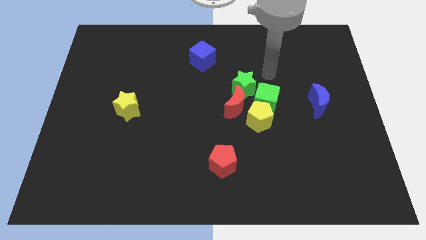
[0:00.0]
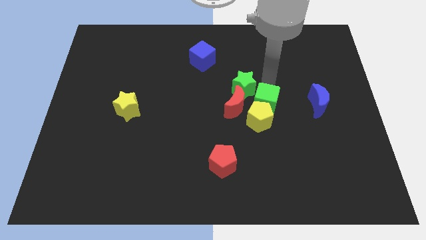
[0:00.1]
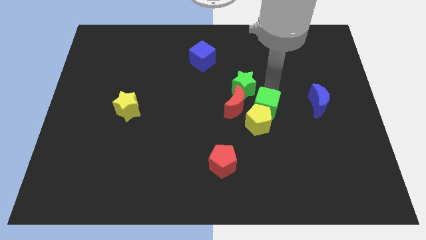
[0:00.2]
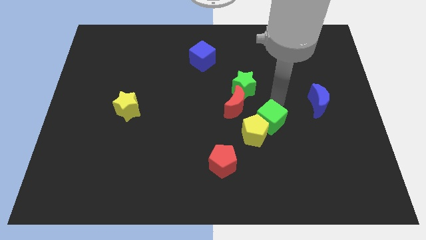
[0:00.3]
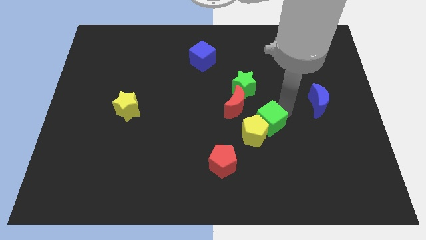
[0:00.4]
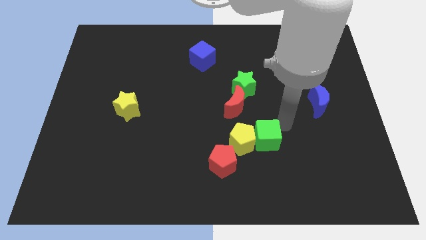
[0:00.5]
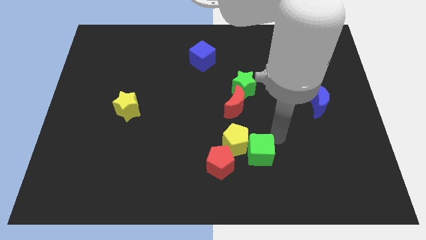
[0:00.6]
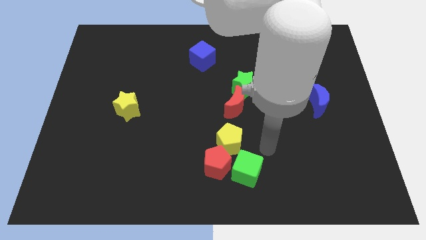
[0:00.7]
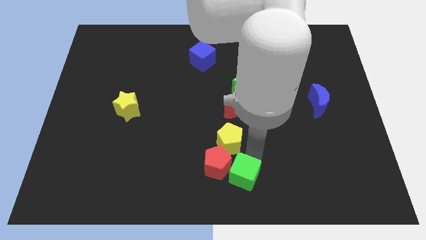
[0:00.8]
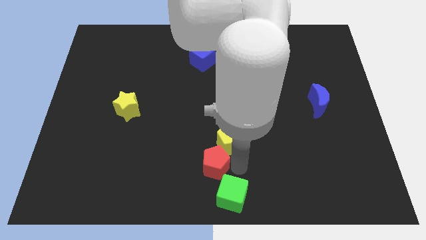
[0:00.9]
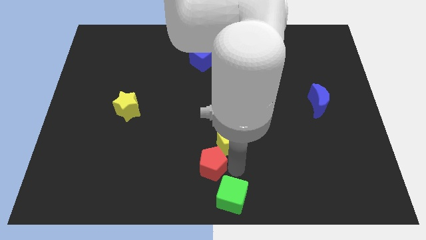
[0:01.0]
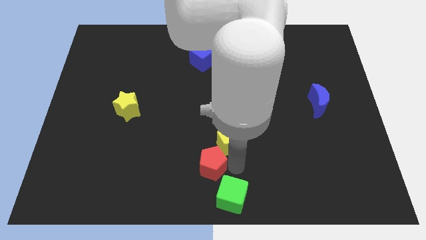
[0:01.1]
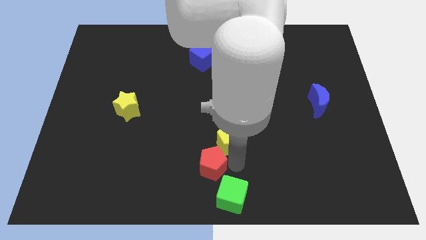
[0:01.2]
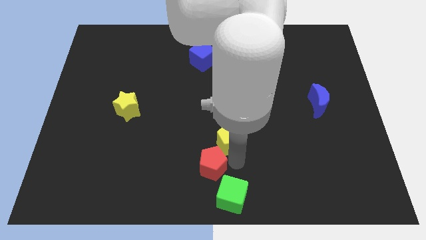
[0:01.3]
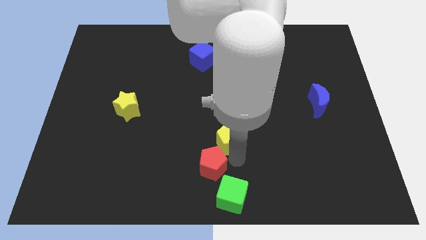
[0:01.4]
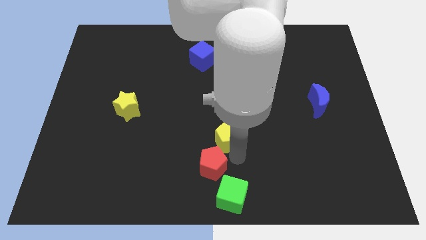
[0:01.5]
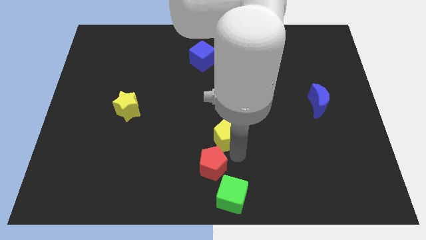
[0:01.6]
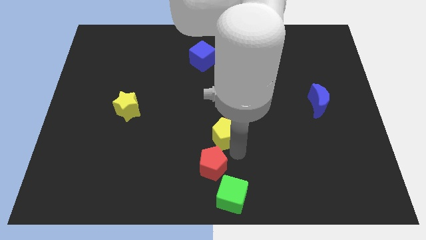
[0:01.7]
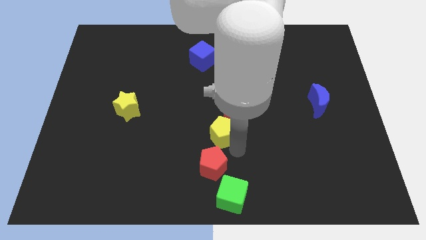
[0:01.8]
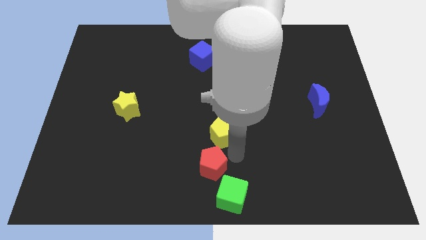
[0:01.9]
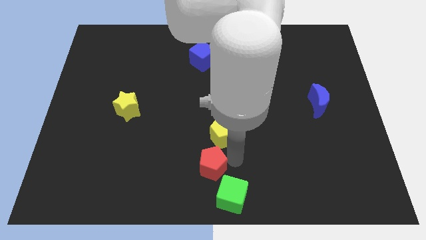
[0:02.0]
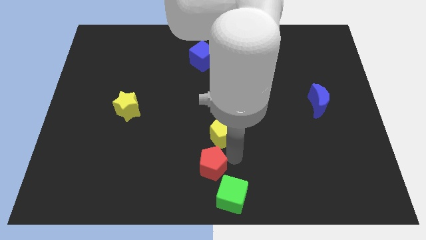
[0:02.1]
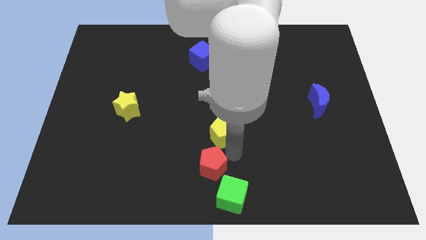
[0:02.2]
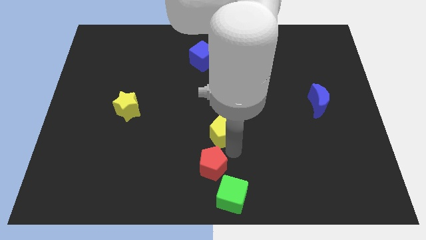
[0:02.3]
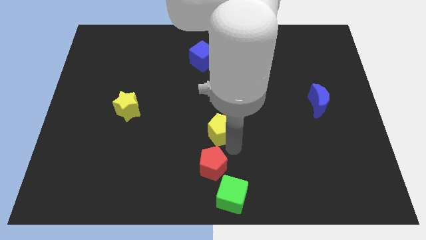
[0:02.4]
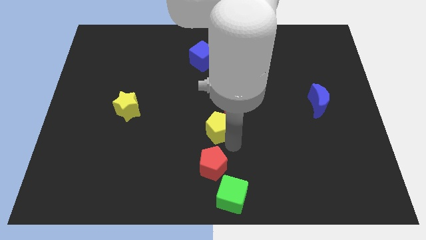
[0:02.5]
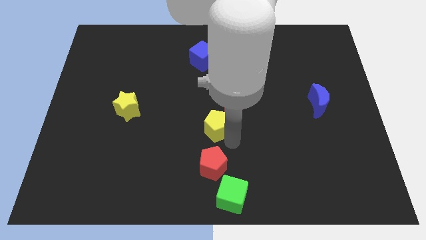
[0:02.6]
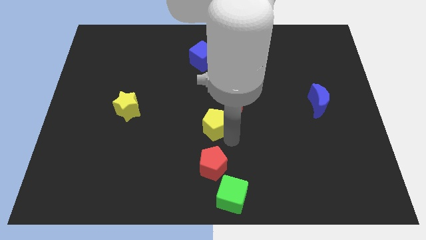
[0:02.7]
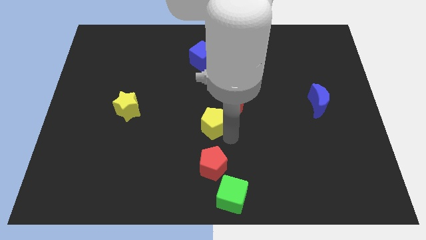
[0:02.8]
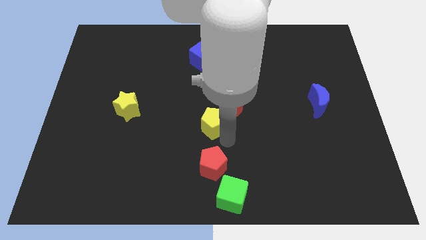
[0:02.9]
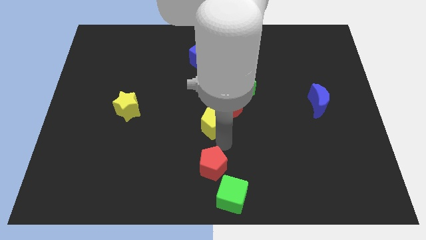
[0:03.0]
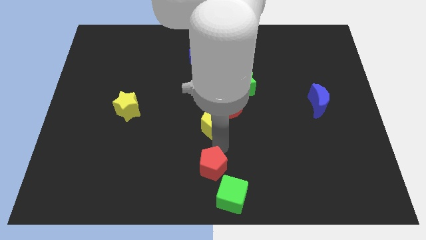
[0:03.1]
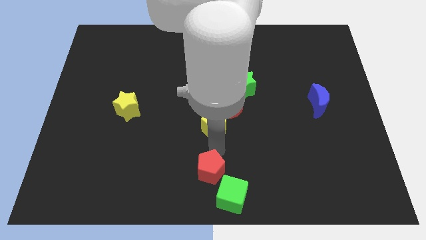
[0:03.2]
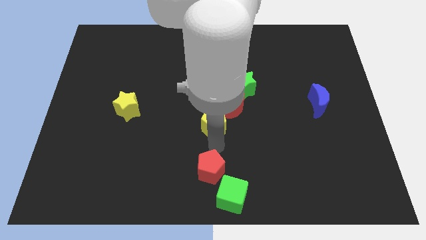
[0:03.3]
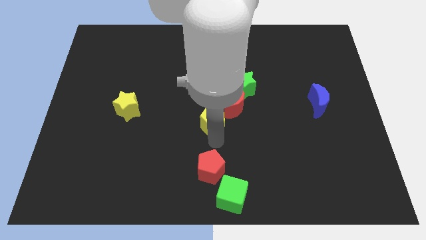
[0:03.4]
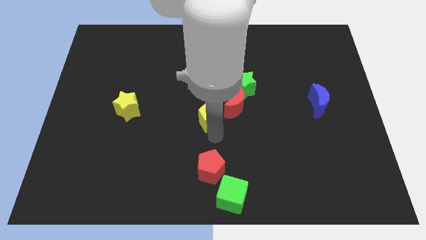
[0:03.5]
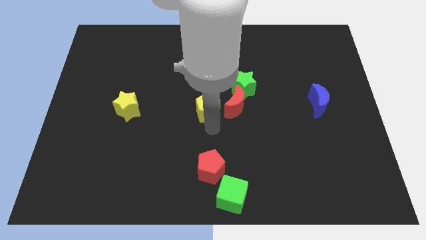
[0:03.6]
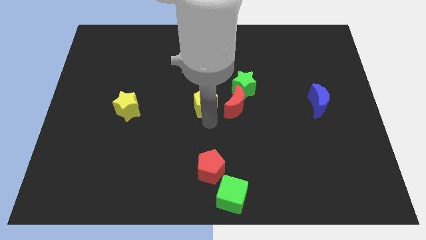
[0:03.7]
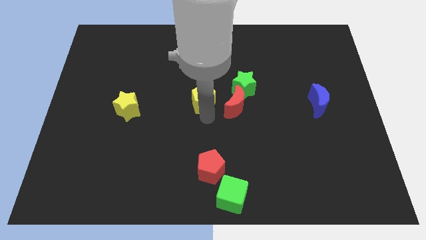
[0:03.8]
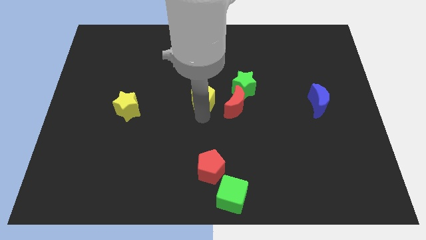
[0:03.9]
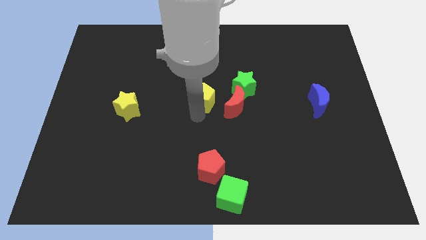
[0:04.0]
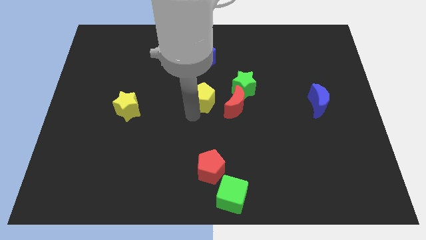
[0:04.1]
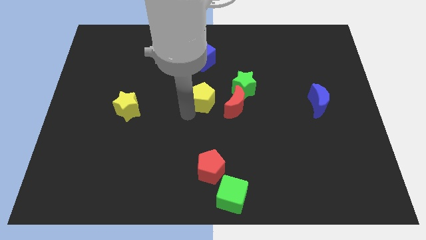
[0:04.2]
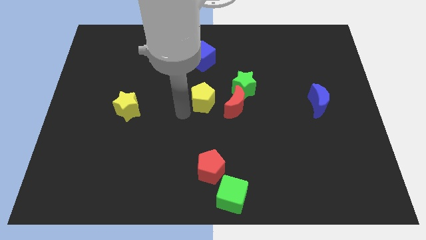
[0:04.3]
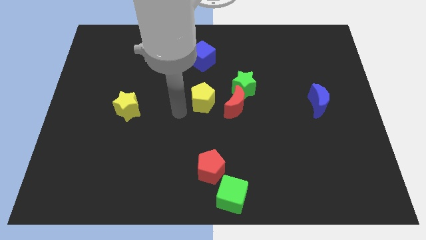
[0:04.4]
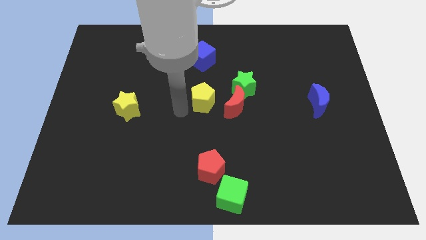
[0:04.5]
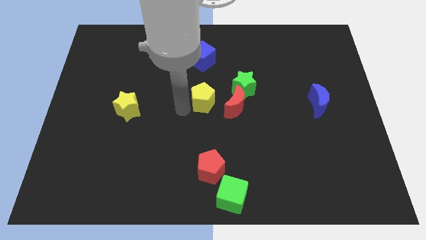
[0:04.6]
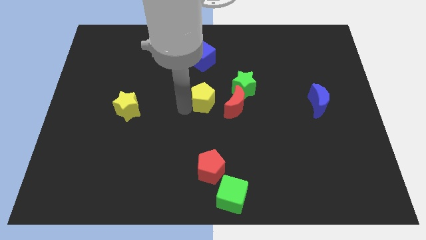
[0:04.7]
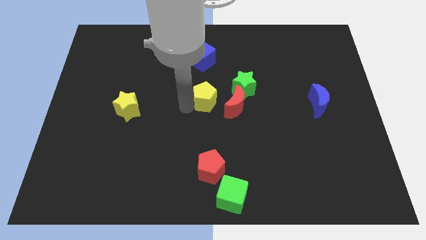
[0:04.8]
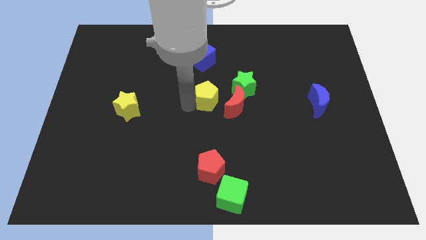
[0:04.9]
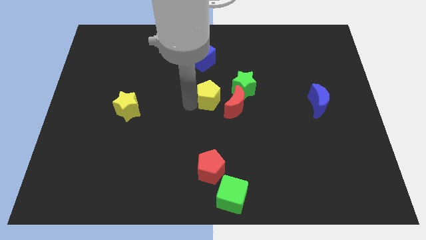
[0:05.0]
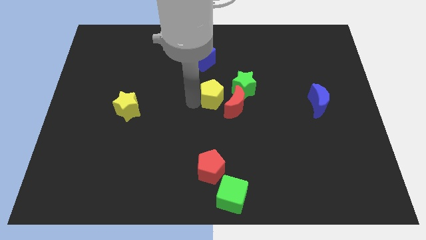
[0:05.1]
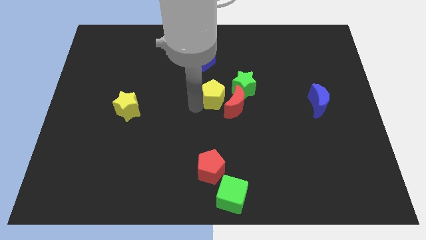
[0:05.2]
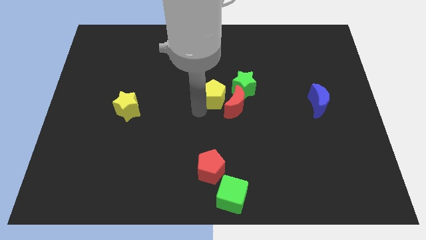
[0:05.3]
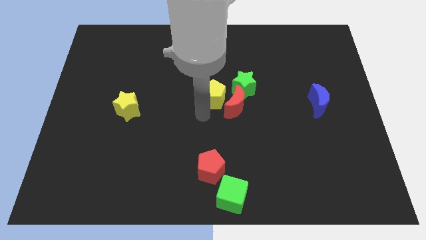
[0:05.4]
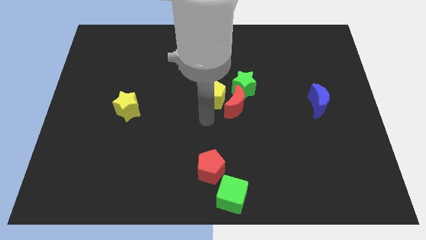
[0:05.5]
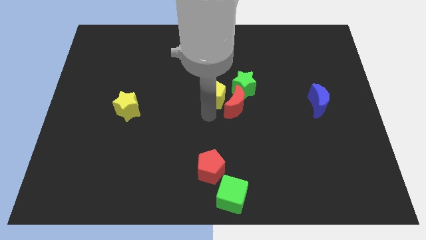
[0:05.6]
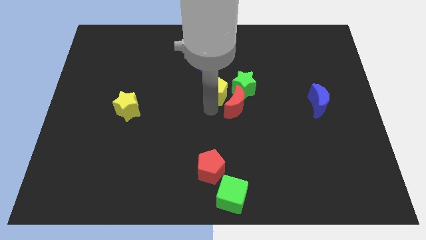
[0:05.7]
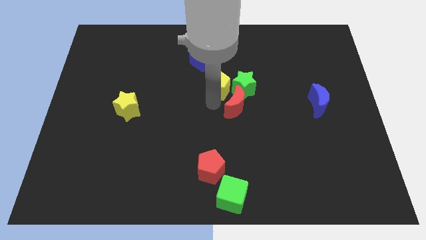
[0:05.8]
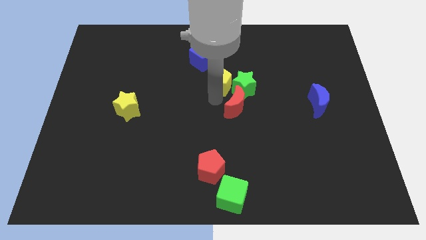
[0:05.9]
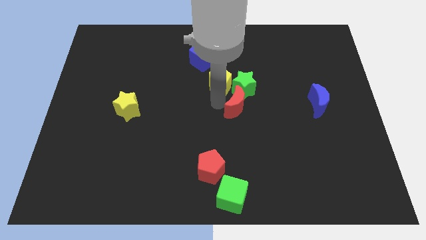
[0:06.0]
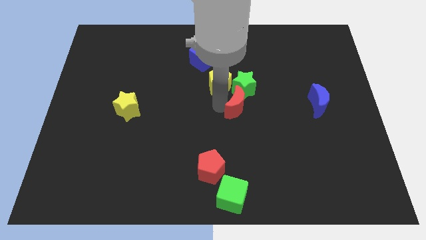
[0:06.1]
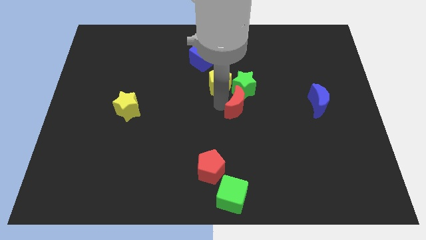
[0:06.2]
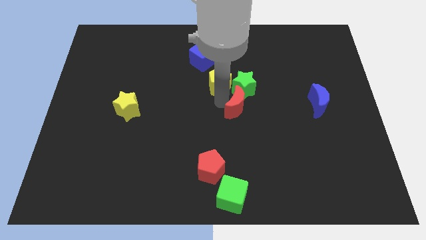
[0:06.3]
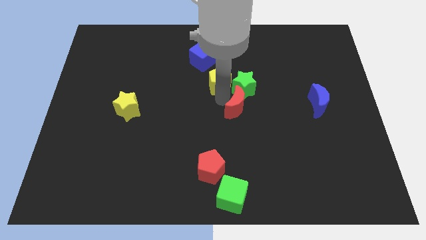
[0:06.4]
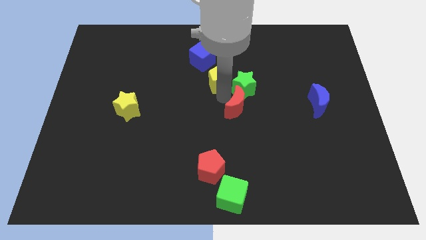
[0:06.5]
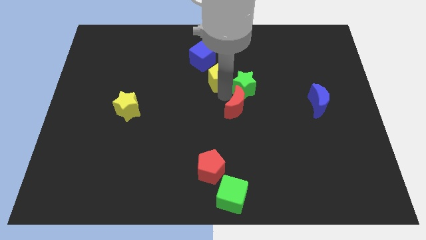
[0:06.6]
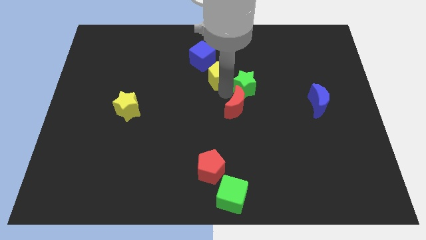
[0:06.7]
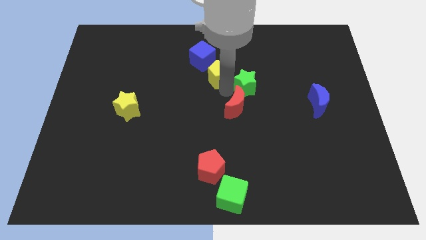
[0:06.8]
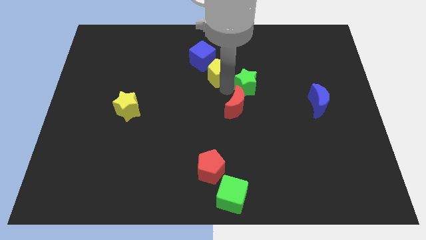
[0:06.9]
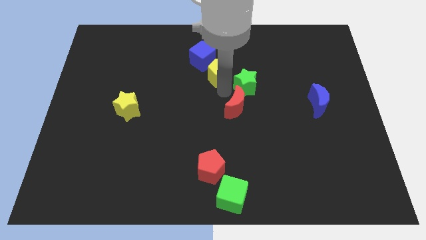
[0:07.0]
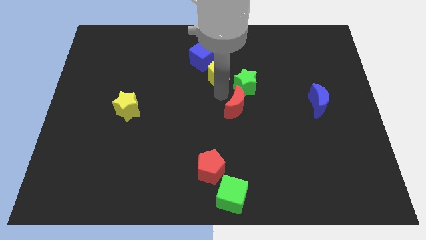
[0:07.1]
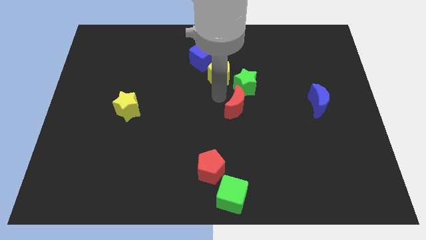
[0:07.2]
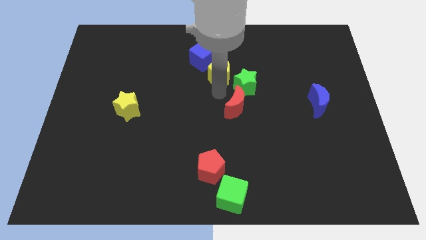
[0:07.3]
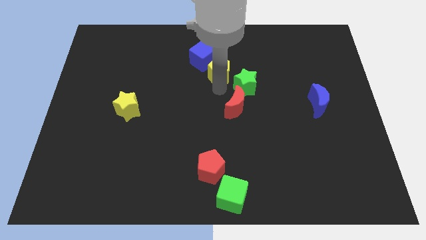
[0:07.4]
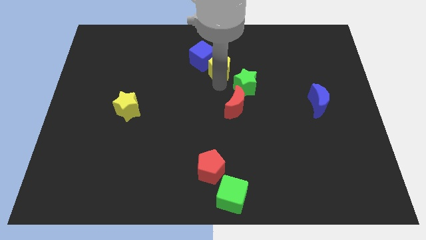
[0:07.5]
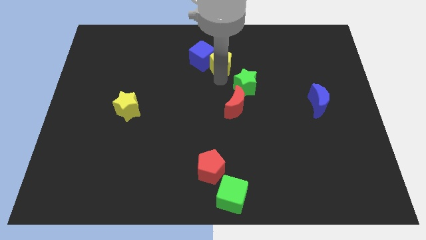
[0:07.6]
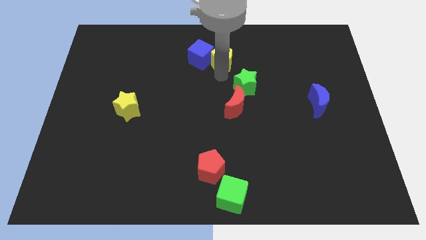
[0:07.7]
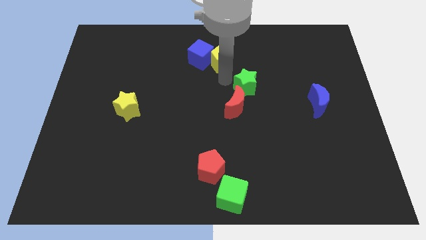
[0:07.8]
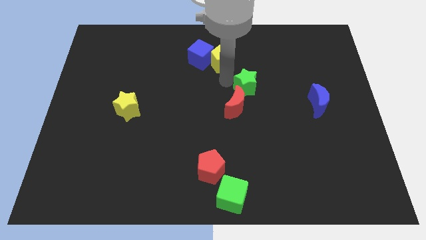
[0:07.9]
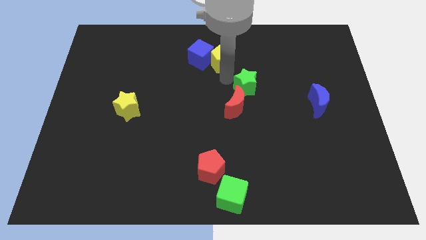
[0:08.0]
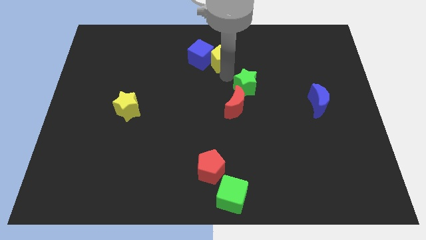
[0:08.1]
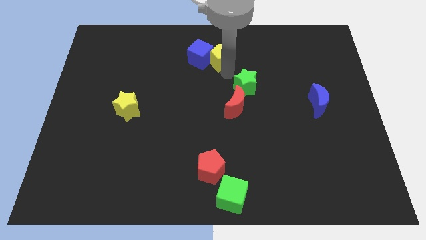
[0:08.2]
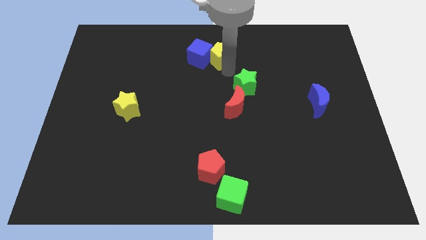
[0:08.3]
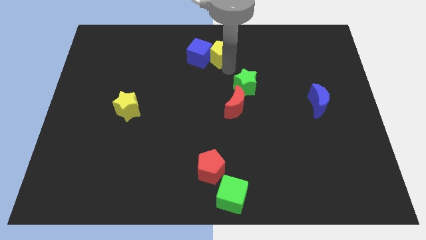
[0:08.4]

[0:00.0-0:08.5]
push the yellow pentagon to the towards your base
